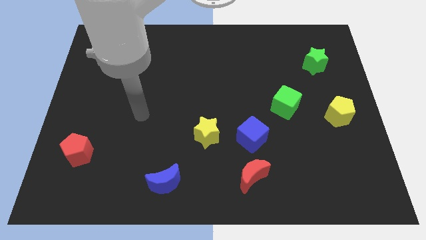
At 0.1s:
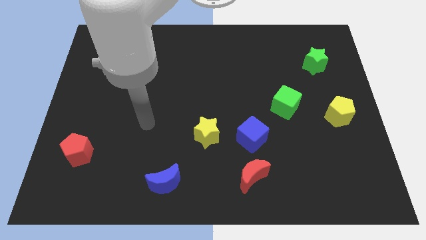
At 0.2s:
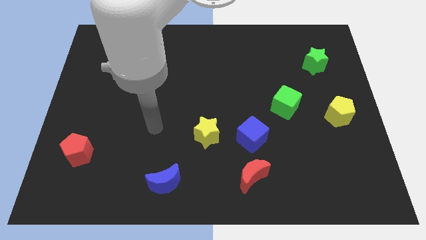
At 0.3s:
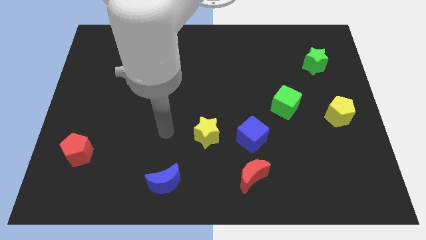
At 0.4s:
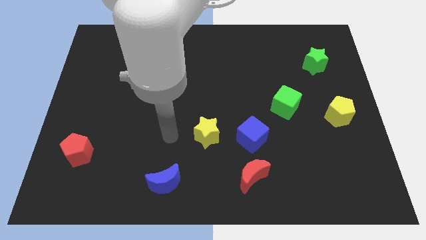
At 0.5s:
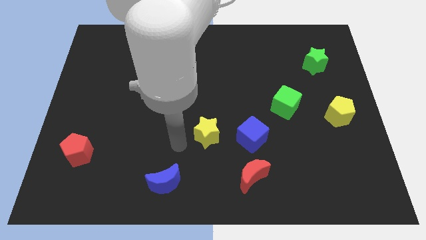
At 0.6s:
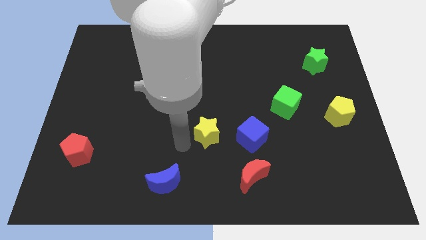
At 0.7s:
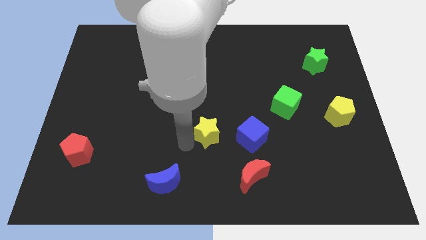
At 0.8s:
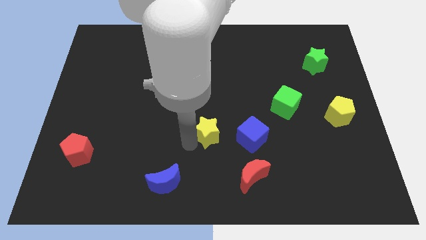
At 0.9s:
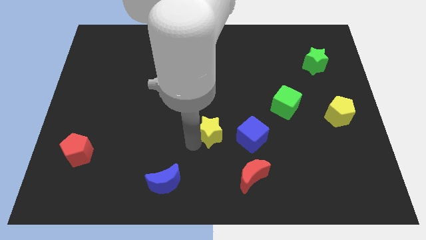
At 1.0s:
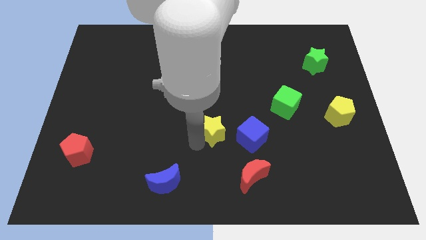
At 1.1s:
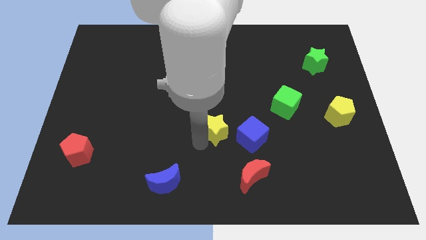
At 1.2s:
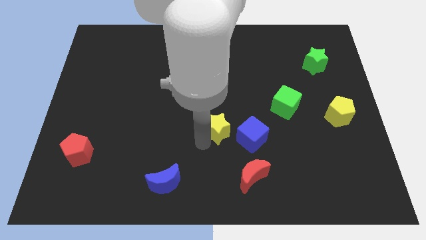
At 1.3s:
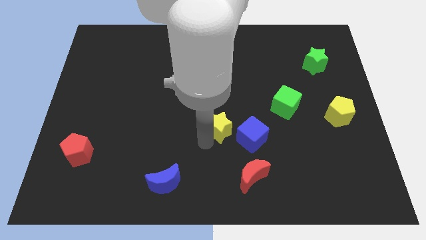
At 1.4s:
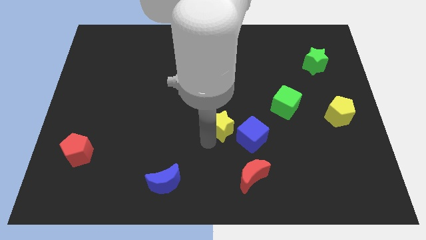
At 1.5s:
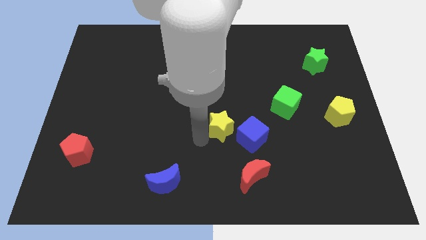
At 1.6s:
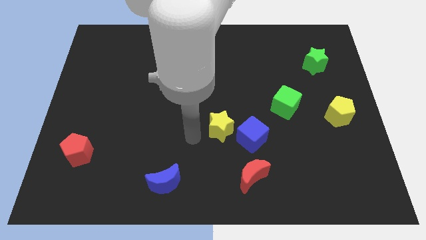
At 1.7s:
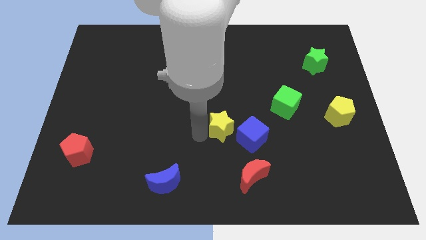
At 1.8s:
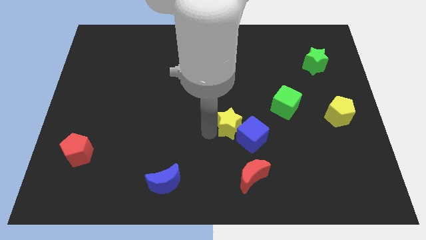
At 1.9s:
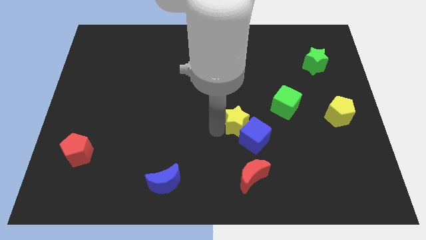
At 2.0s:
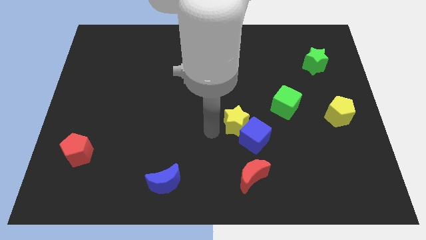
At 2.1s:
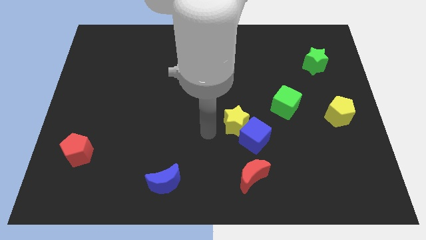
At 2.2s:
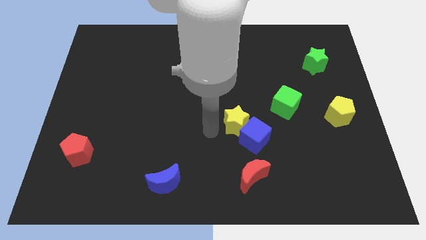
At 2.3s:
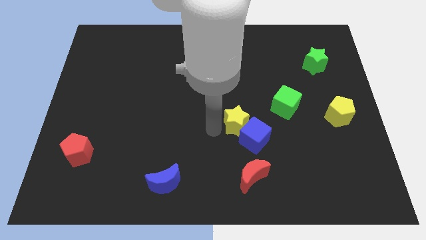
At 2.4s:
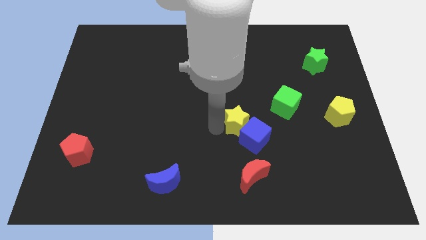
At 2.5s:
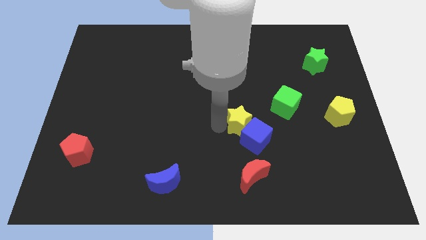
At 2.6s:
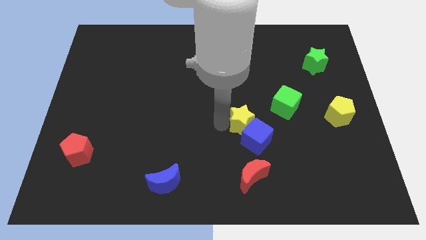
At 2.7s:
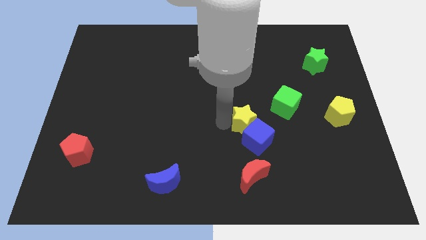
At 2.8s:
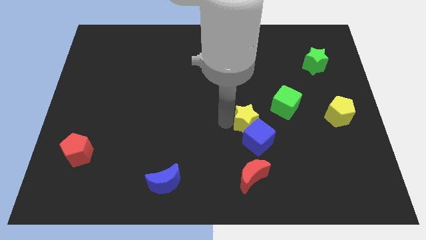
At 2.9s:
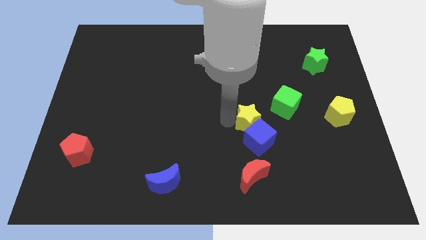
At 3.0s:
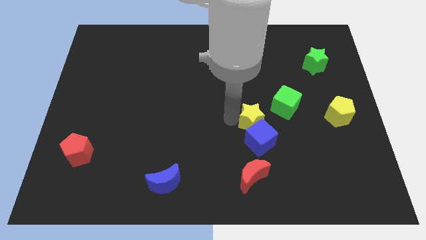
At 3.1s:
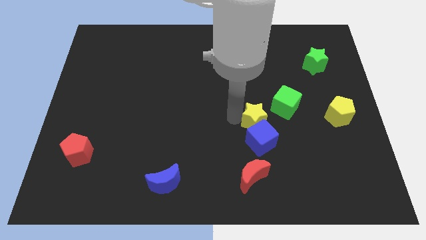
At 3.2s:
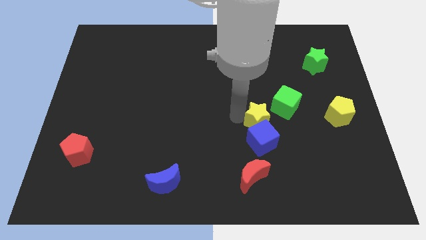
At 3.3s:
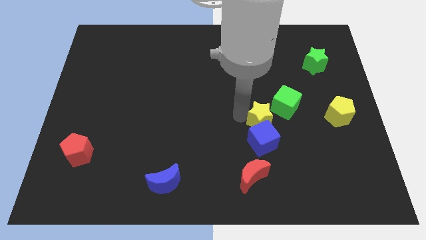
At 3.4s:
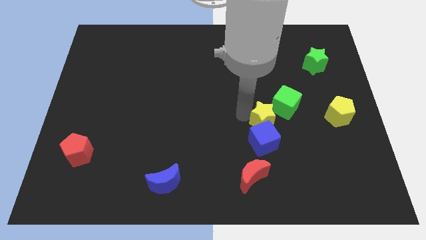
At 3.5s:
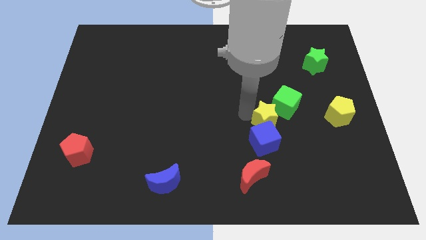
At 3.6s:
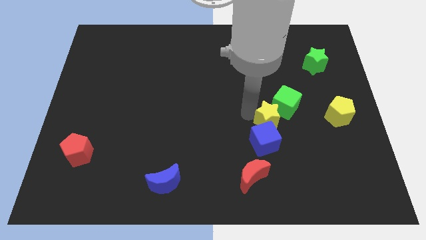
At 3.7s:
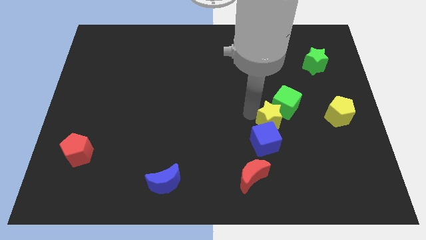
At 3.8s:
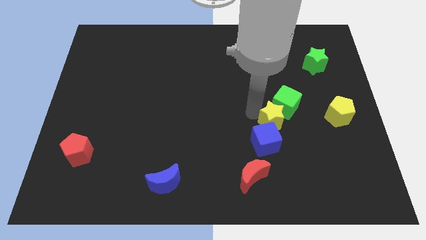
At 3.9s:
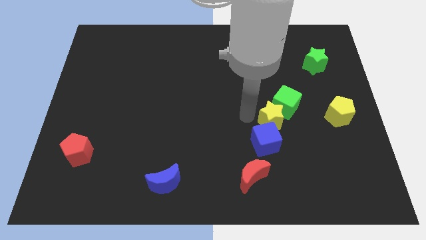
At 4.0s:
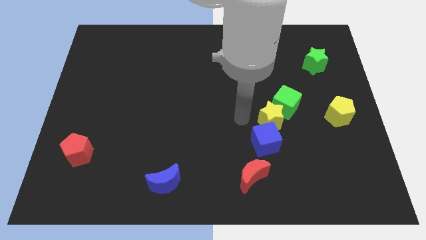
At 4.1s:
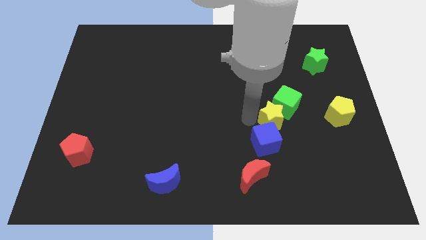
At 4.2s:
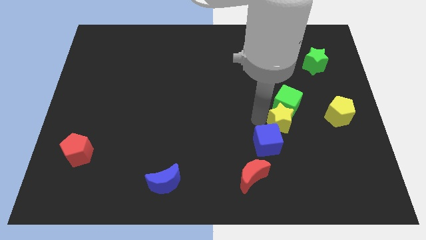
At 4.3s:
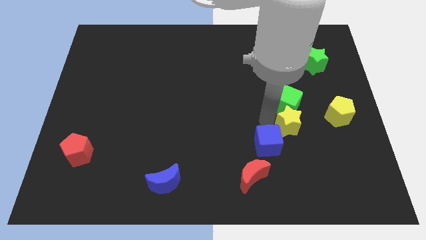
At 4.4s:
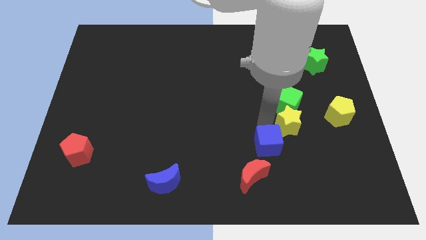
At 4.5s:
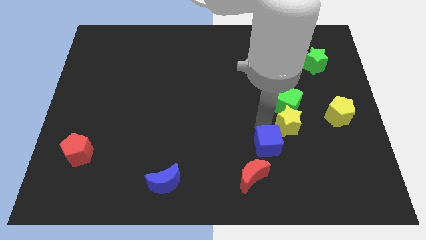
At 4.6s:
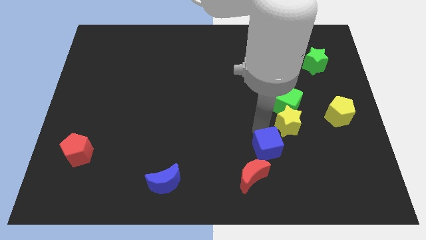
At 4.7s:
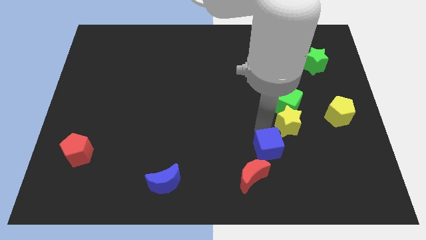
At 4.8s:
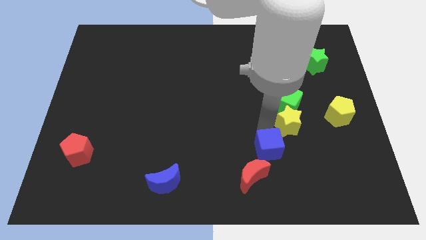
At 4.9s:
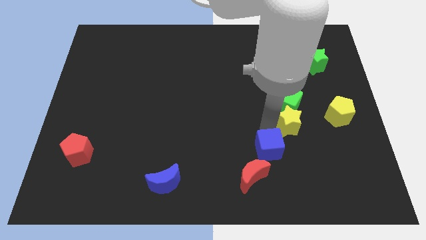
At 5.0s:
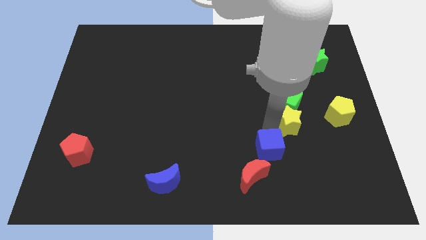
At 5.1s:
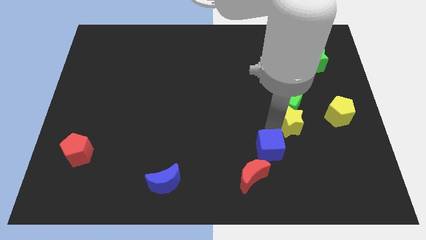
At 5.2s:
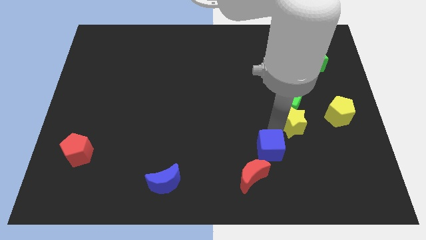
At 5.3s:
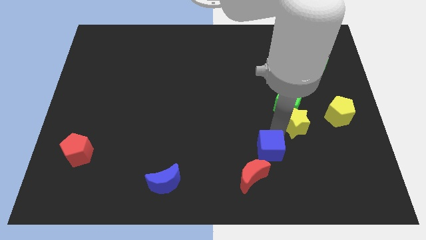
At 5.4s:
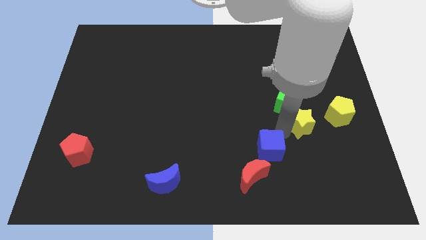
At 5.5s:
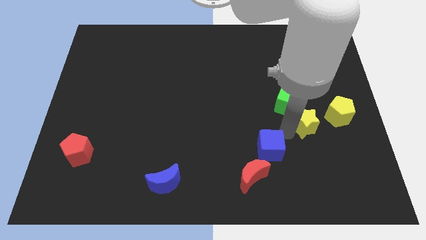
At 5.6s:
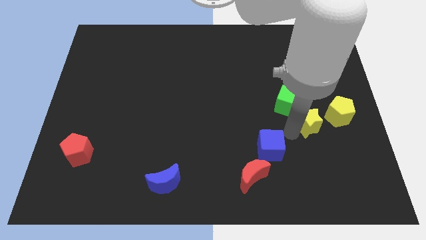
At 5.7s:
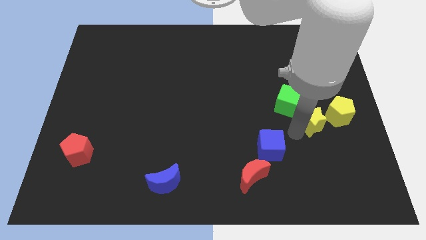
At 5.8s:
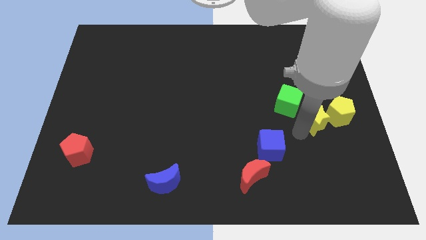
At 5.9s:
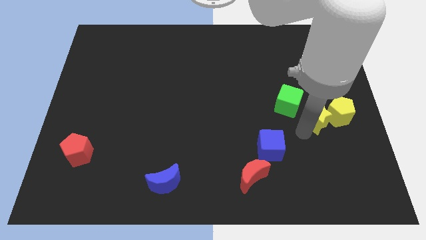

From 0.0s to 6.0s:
push the yellow star to the yellow pentagon

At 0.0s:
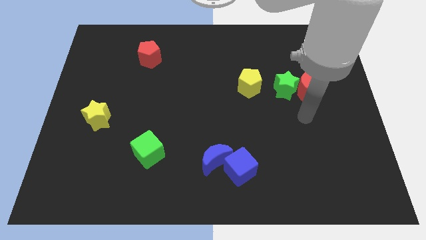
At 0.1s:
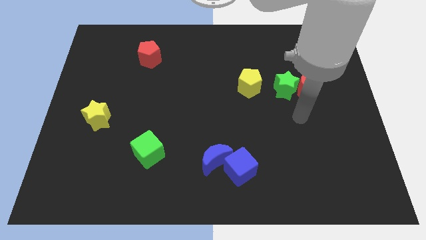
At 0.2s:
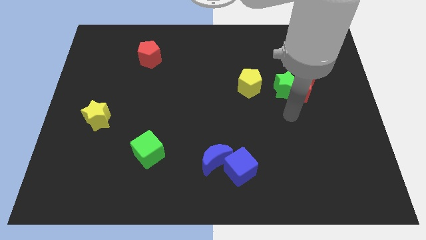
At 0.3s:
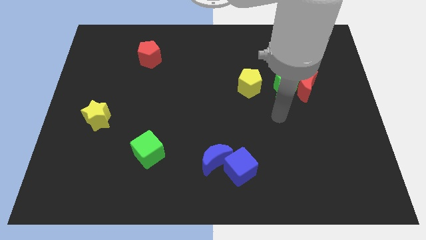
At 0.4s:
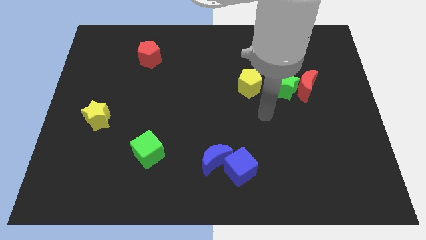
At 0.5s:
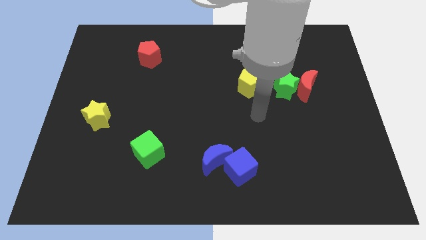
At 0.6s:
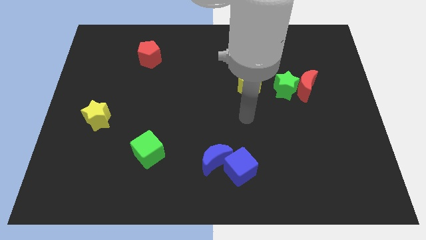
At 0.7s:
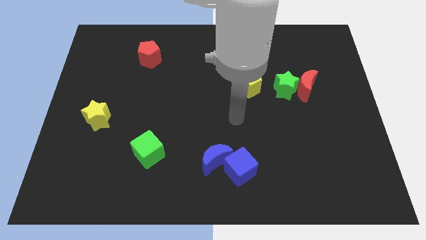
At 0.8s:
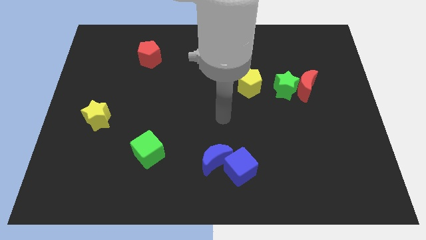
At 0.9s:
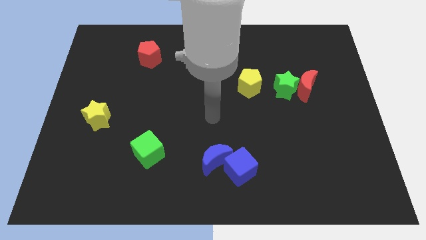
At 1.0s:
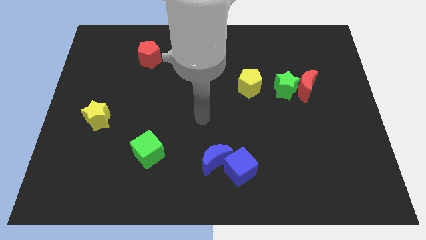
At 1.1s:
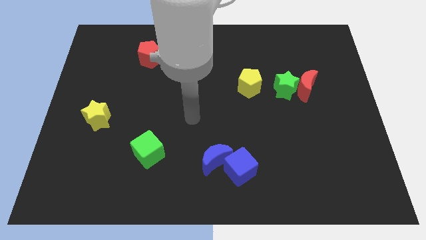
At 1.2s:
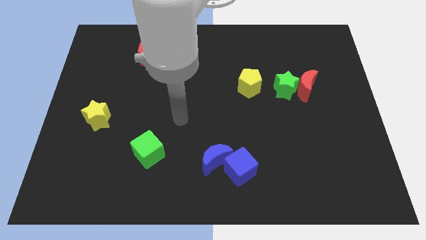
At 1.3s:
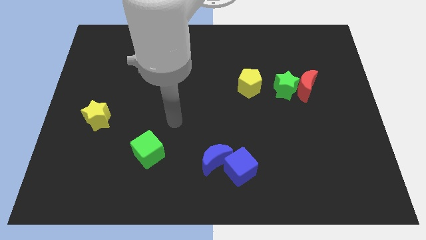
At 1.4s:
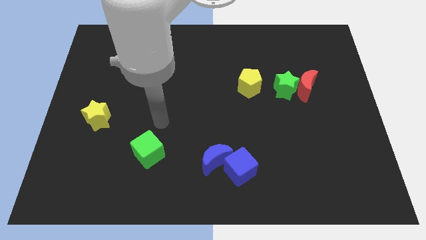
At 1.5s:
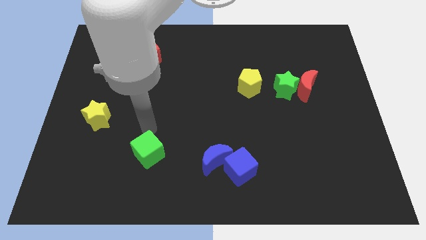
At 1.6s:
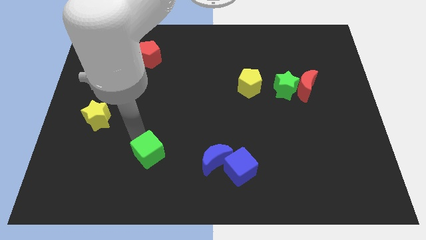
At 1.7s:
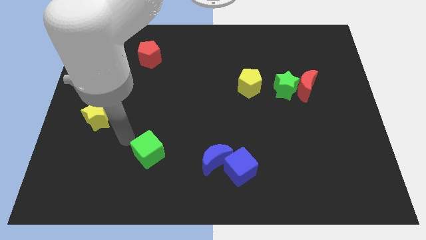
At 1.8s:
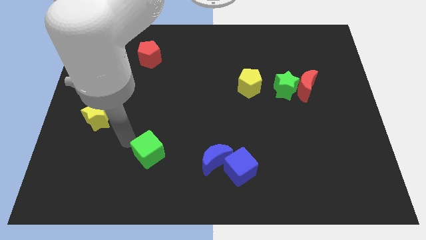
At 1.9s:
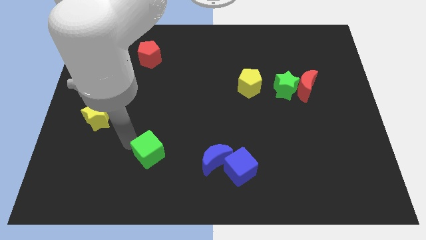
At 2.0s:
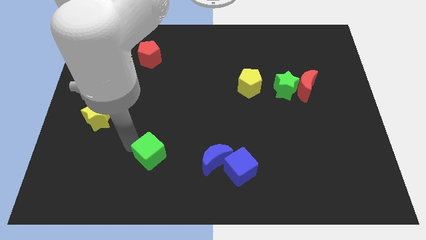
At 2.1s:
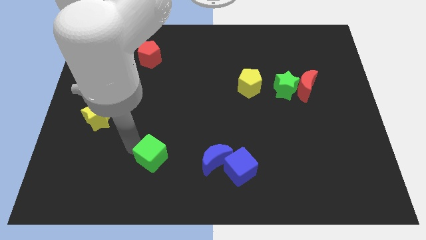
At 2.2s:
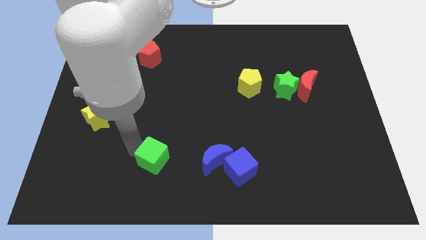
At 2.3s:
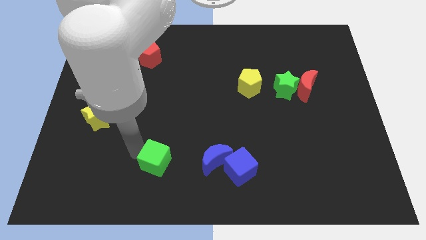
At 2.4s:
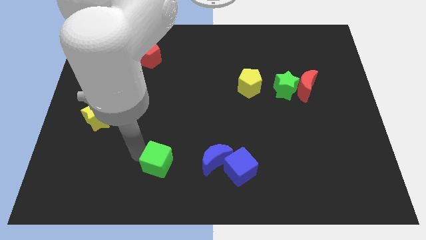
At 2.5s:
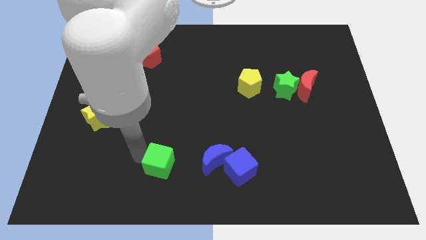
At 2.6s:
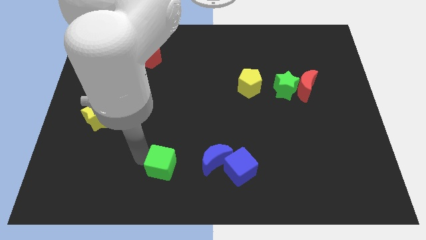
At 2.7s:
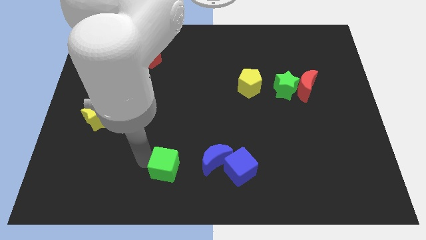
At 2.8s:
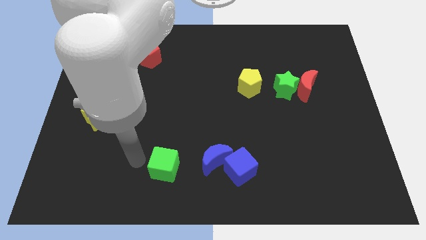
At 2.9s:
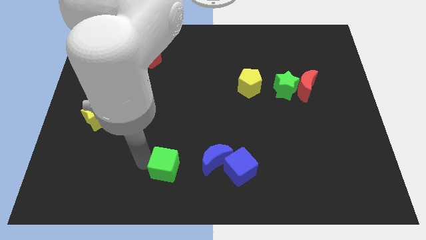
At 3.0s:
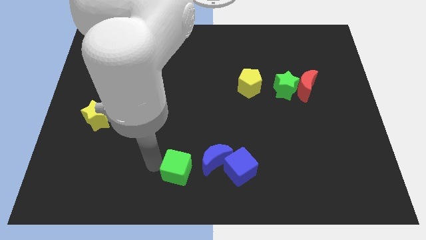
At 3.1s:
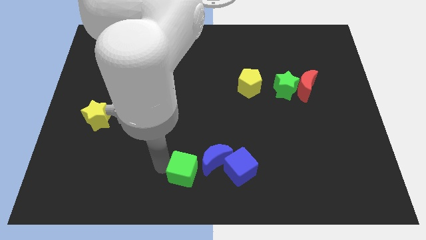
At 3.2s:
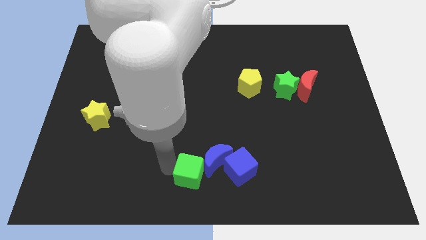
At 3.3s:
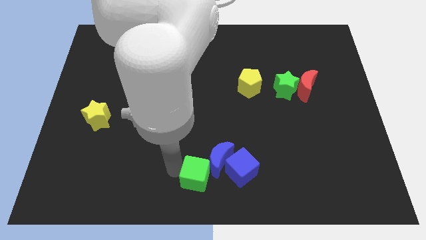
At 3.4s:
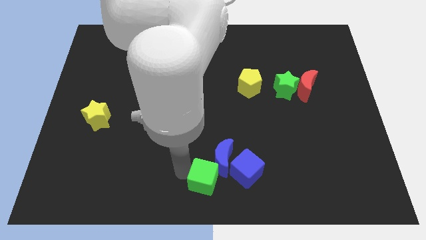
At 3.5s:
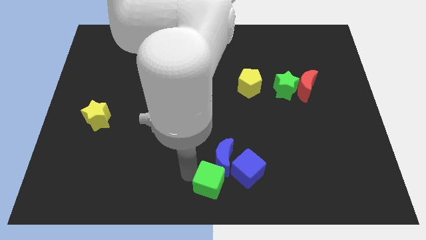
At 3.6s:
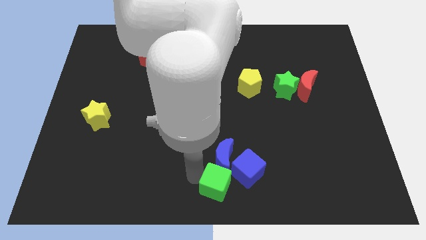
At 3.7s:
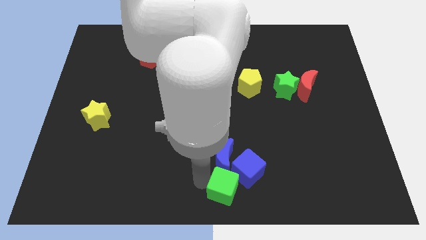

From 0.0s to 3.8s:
push the green cube next to the blue cube
